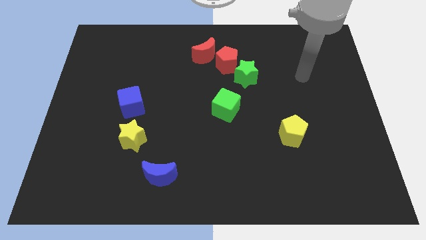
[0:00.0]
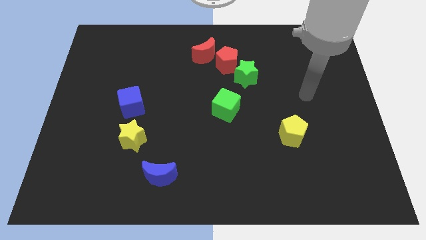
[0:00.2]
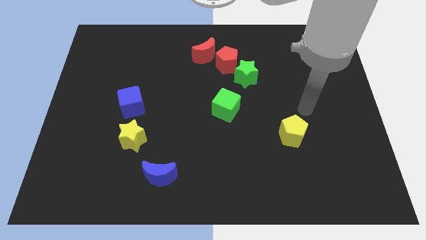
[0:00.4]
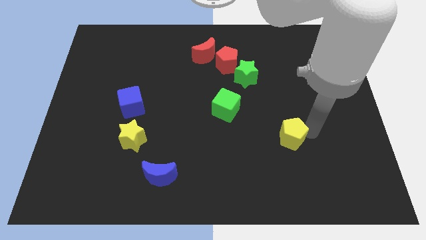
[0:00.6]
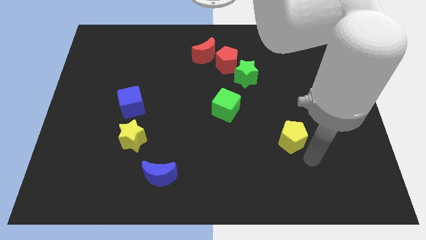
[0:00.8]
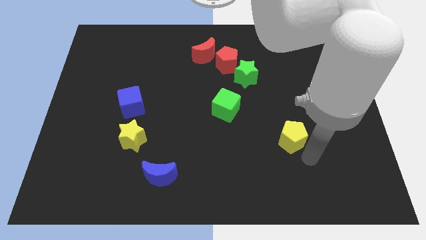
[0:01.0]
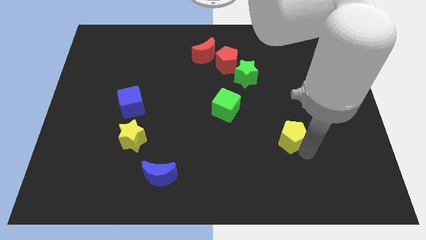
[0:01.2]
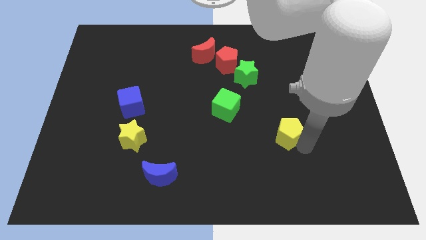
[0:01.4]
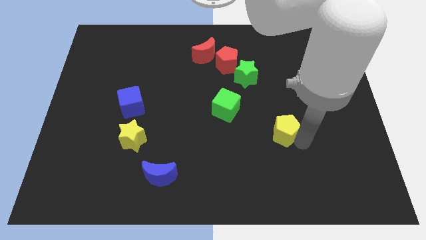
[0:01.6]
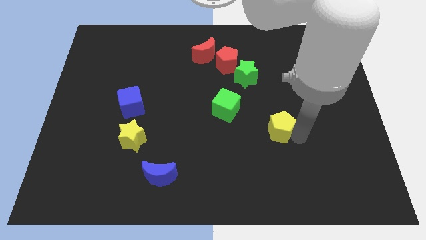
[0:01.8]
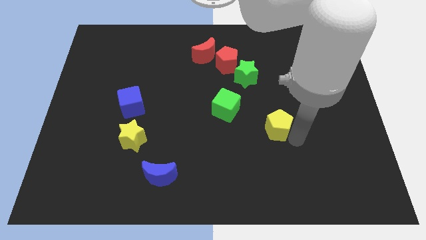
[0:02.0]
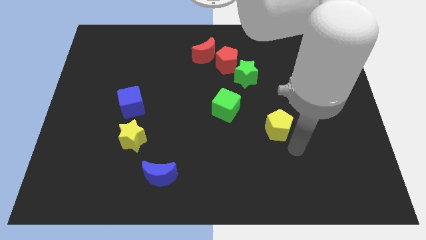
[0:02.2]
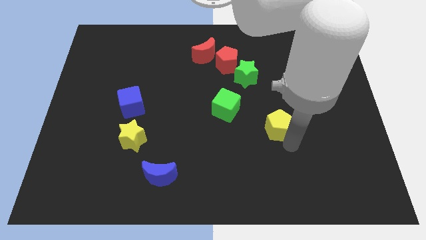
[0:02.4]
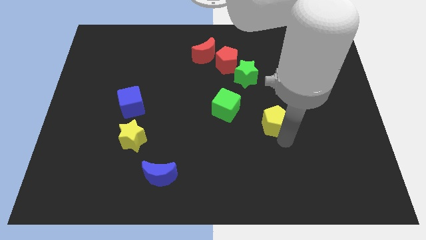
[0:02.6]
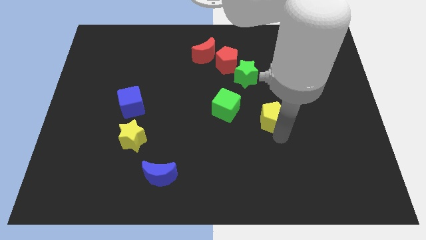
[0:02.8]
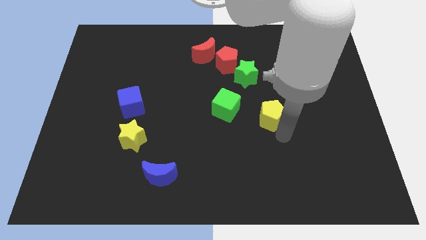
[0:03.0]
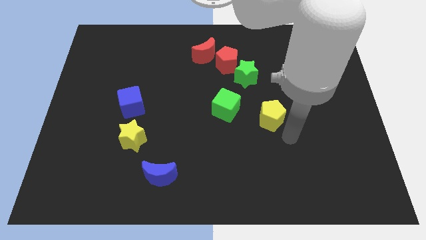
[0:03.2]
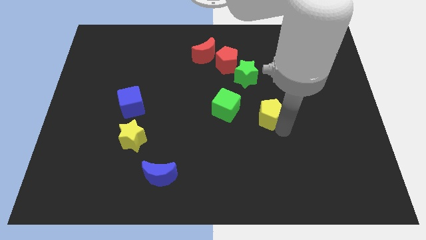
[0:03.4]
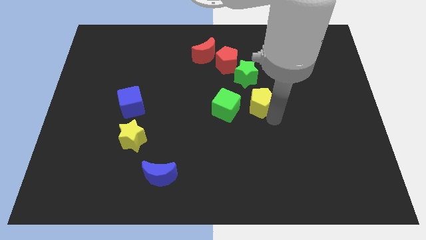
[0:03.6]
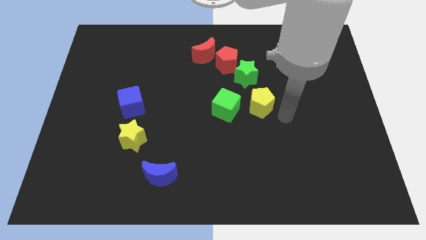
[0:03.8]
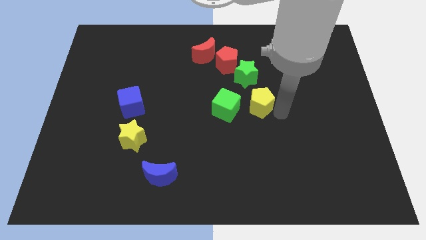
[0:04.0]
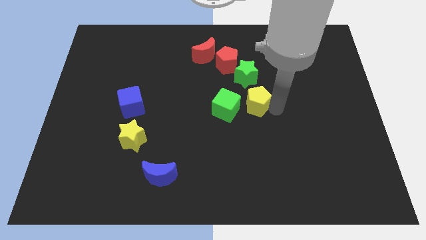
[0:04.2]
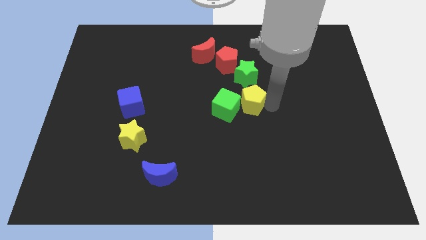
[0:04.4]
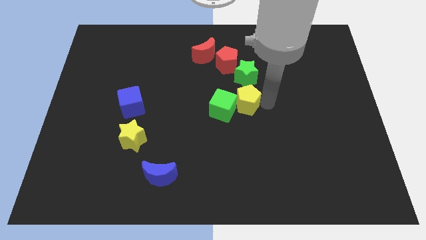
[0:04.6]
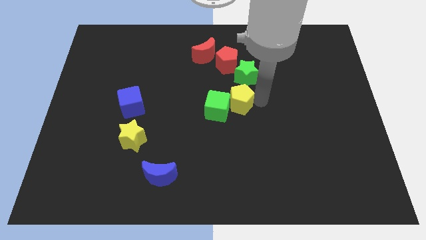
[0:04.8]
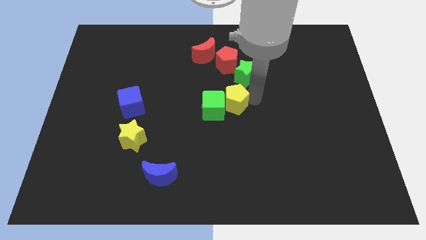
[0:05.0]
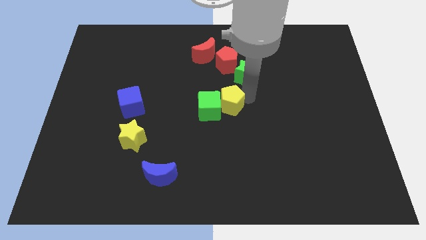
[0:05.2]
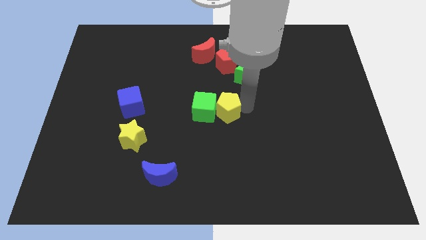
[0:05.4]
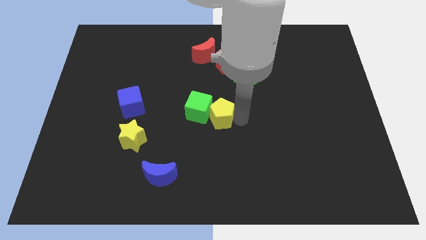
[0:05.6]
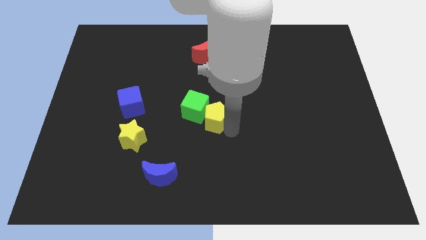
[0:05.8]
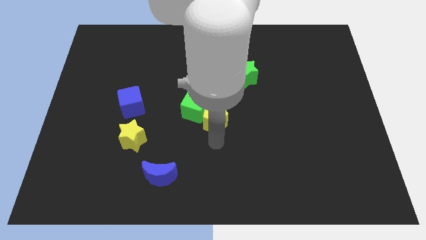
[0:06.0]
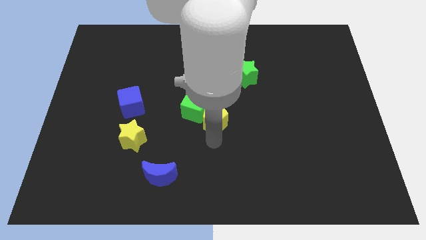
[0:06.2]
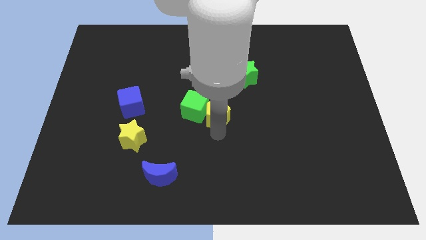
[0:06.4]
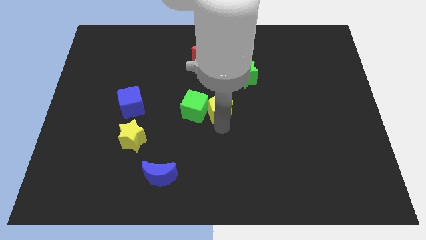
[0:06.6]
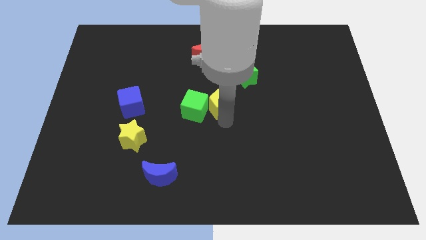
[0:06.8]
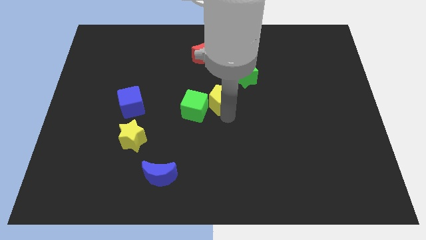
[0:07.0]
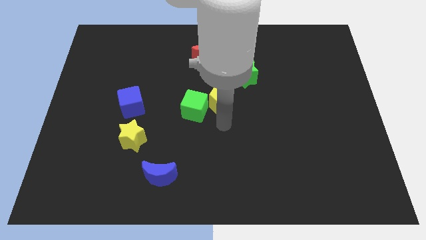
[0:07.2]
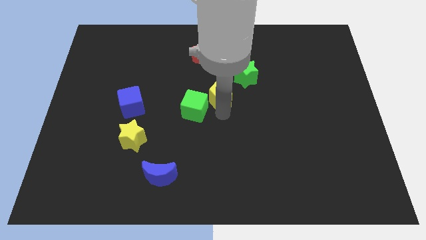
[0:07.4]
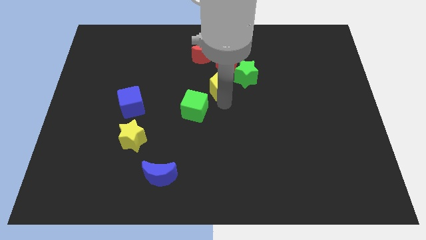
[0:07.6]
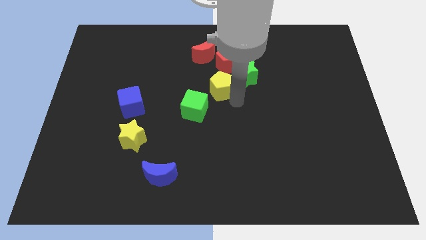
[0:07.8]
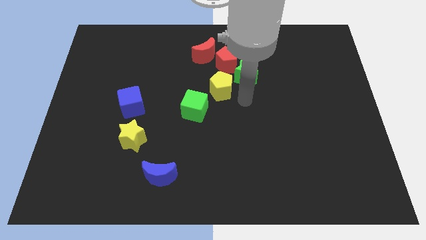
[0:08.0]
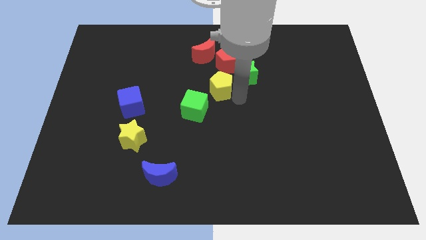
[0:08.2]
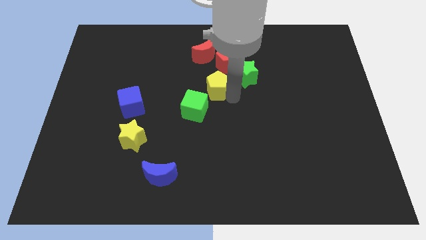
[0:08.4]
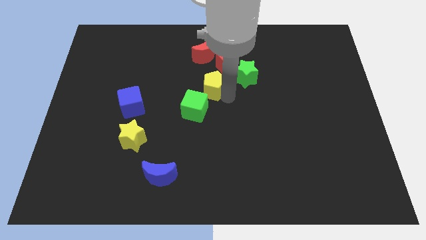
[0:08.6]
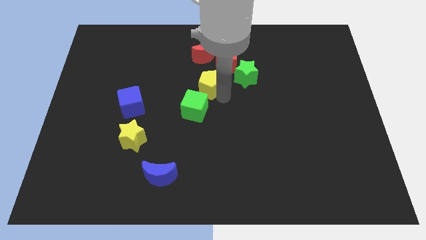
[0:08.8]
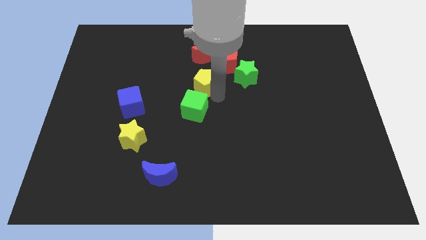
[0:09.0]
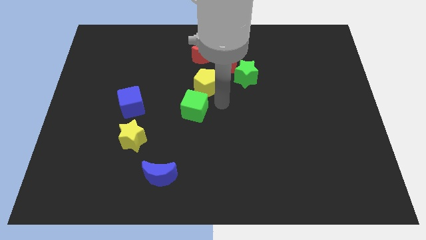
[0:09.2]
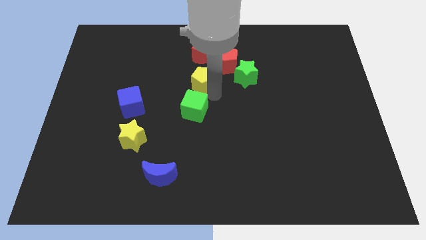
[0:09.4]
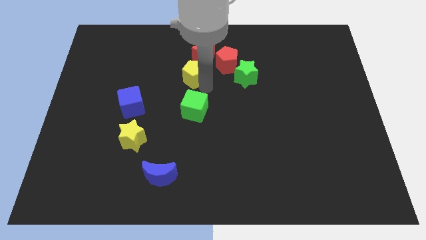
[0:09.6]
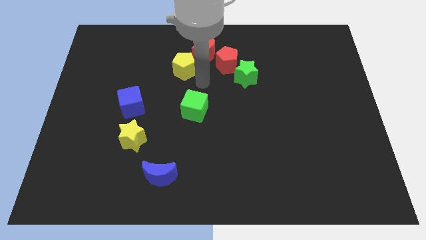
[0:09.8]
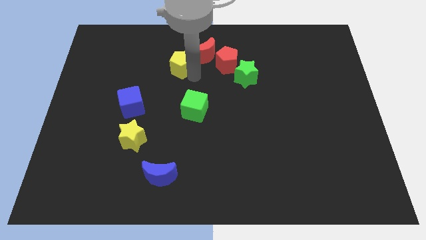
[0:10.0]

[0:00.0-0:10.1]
push the yellow pentagon left of the red moon

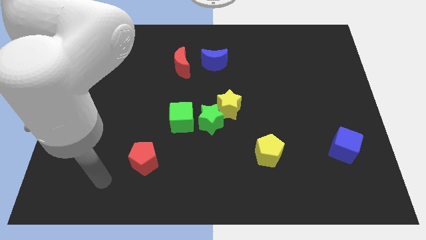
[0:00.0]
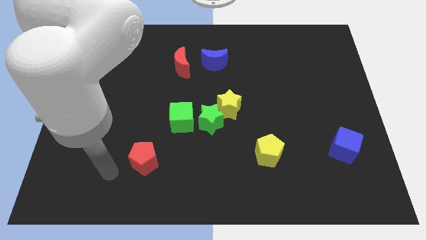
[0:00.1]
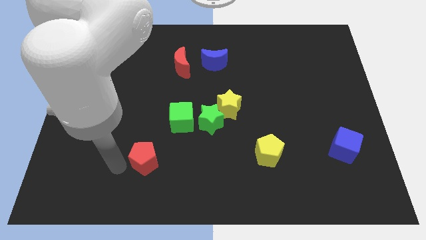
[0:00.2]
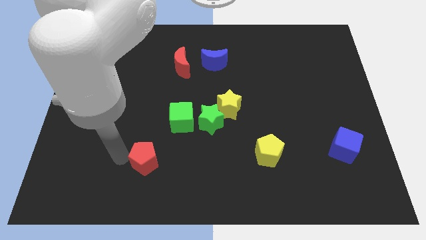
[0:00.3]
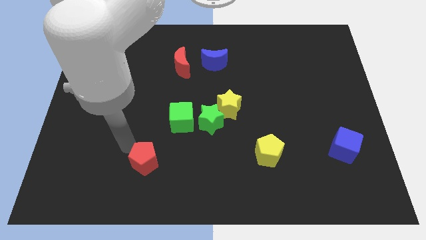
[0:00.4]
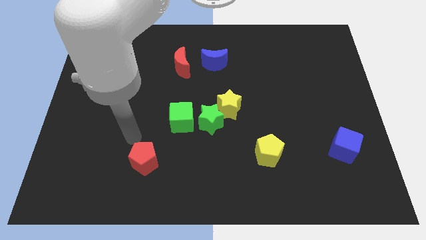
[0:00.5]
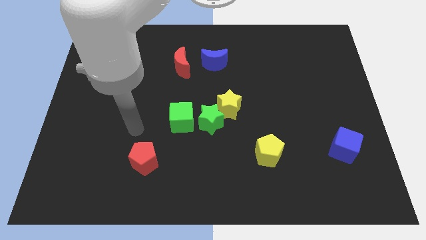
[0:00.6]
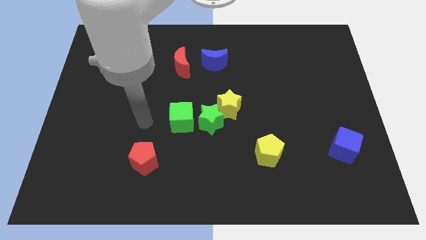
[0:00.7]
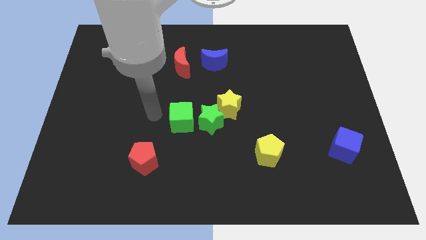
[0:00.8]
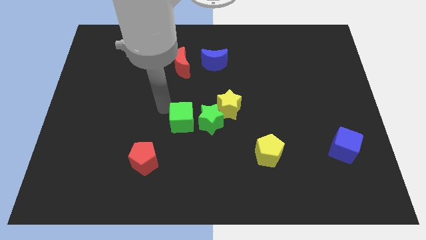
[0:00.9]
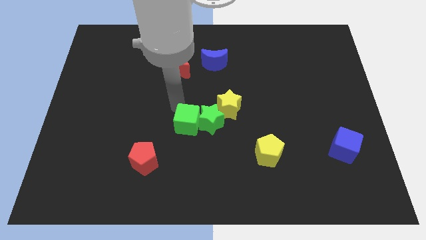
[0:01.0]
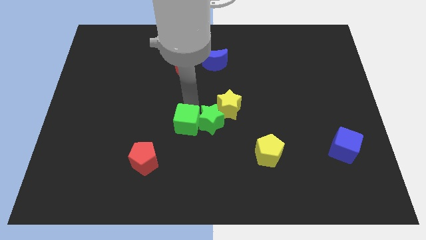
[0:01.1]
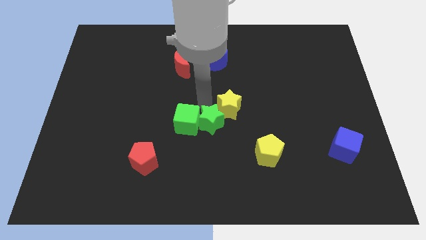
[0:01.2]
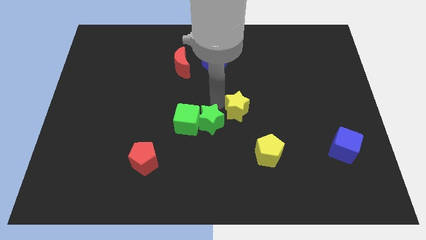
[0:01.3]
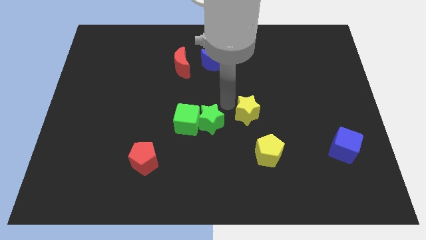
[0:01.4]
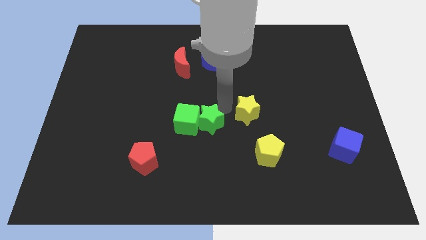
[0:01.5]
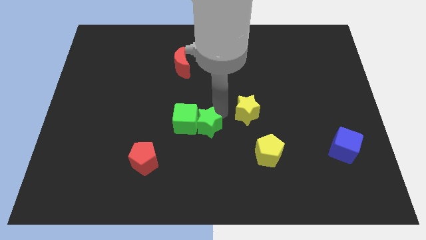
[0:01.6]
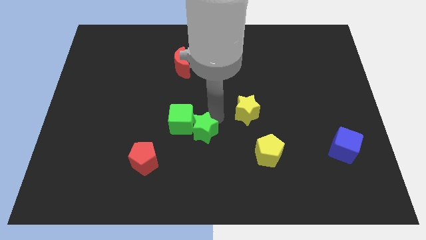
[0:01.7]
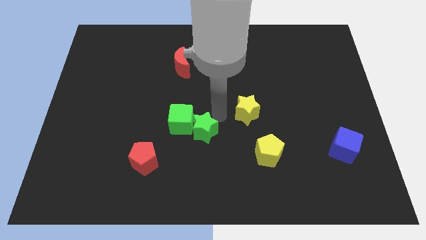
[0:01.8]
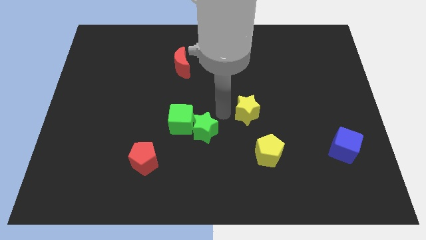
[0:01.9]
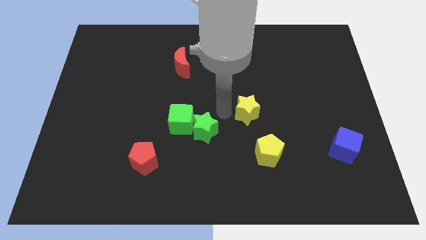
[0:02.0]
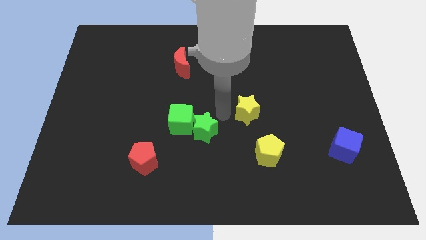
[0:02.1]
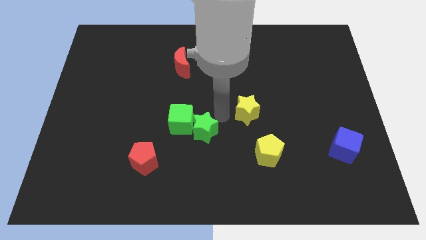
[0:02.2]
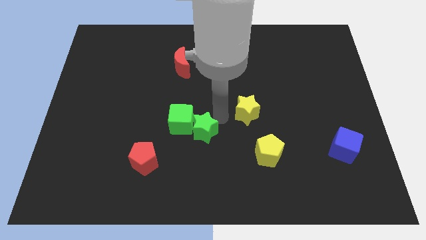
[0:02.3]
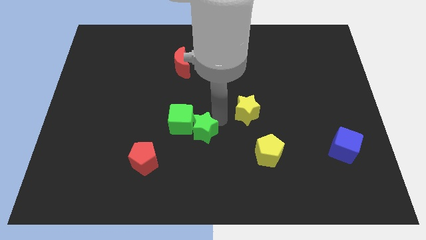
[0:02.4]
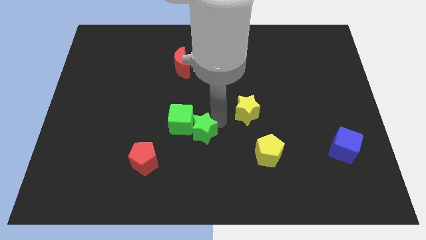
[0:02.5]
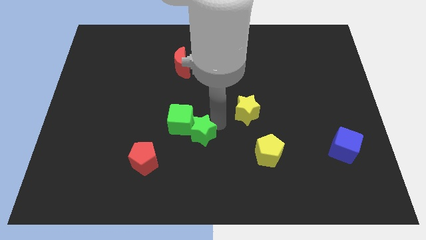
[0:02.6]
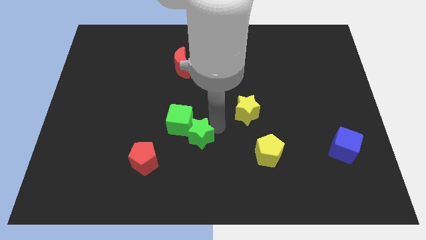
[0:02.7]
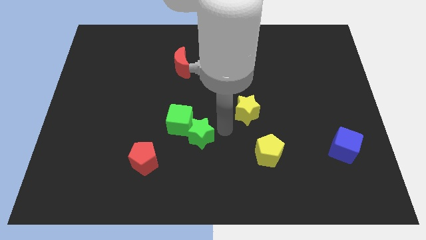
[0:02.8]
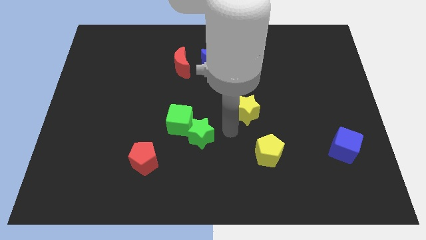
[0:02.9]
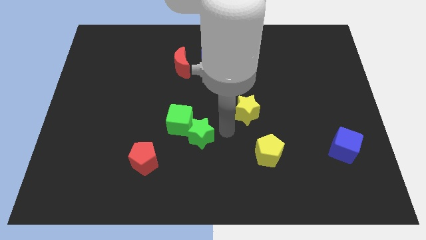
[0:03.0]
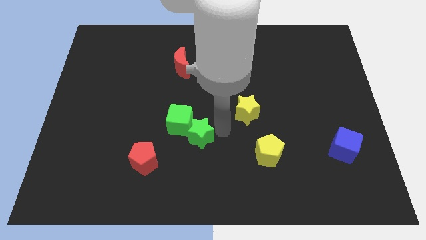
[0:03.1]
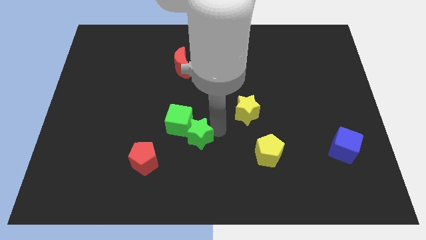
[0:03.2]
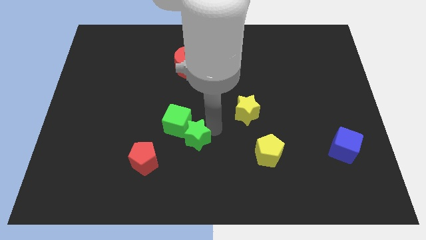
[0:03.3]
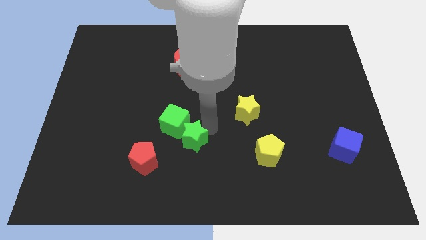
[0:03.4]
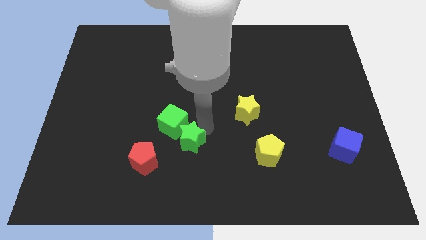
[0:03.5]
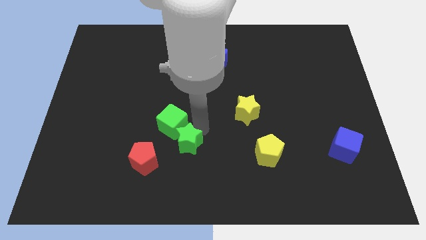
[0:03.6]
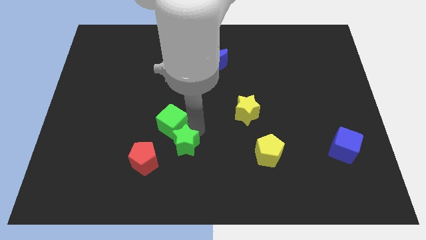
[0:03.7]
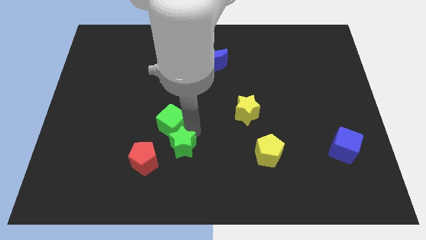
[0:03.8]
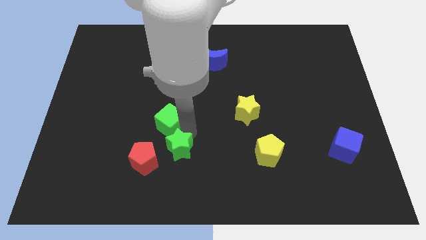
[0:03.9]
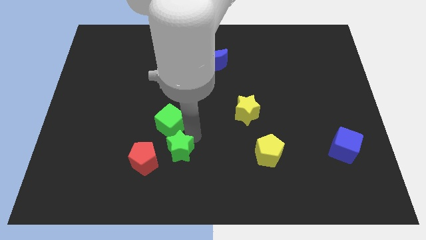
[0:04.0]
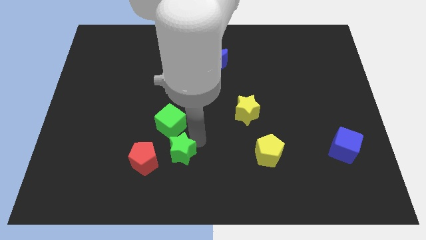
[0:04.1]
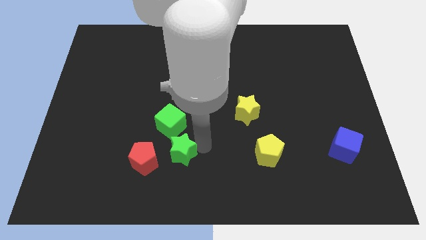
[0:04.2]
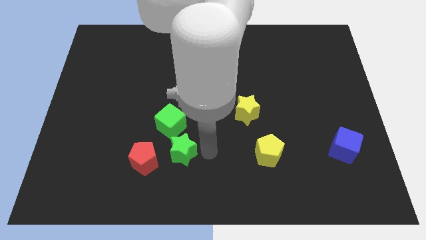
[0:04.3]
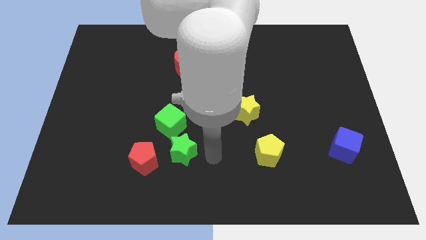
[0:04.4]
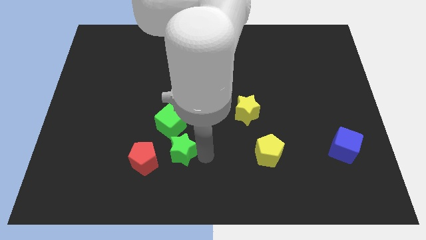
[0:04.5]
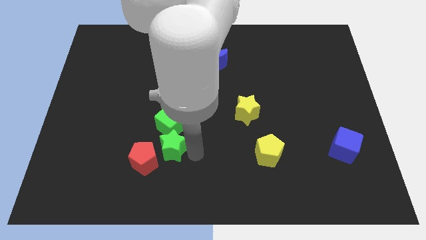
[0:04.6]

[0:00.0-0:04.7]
put the green star to the bottom left of the green cube
